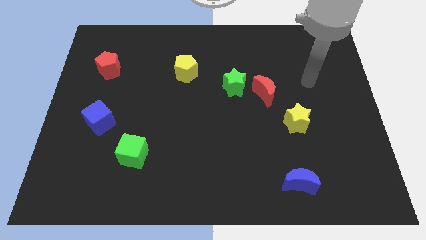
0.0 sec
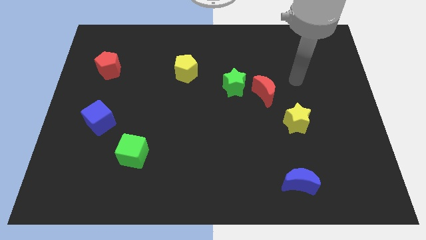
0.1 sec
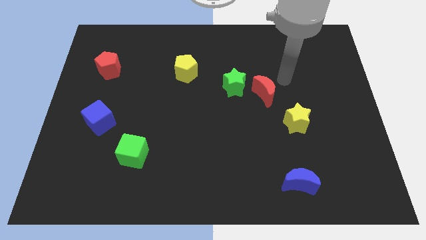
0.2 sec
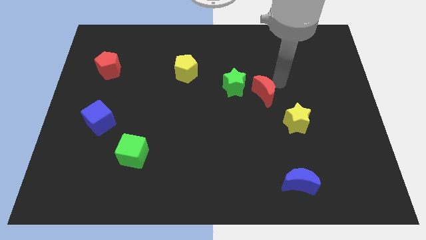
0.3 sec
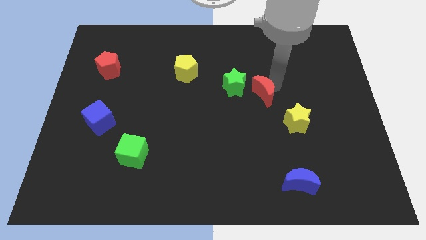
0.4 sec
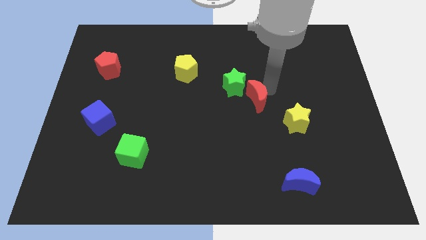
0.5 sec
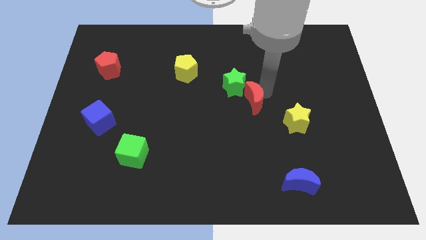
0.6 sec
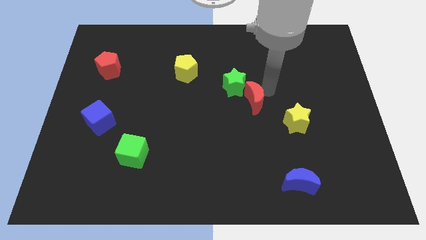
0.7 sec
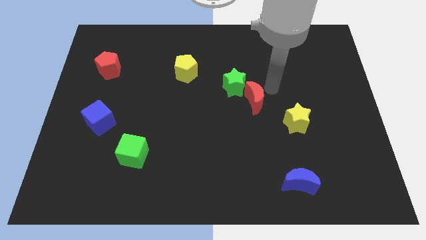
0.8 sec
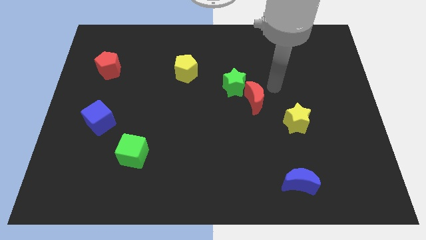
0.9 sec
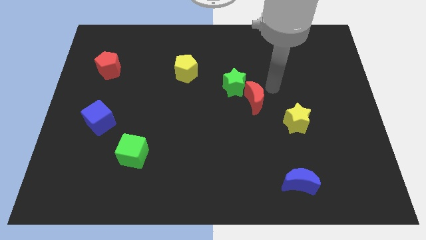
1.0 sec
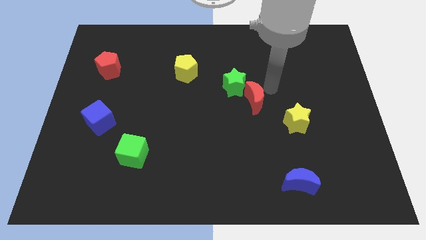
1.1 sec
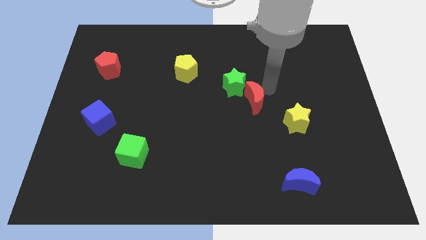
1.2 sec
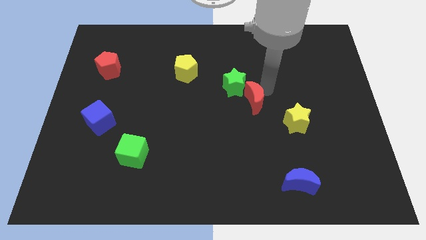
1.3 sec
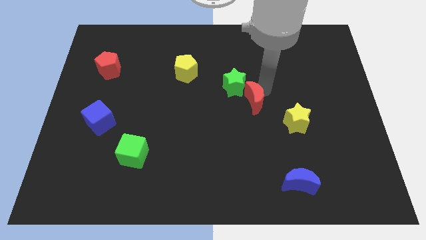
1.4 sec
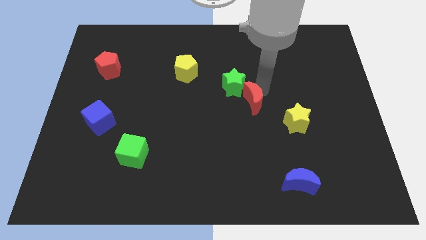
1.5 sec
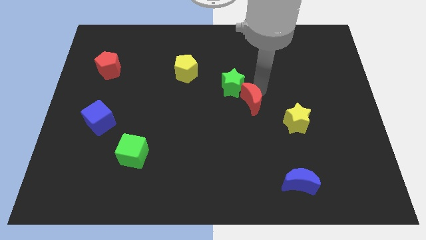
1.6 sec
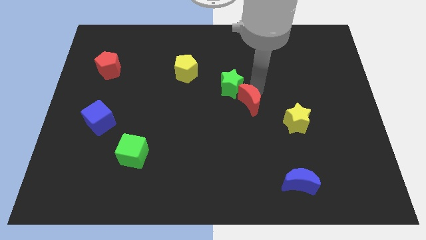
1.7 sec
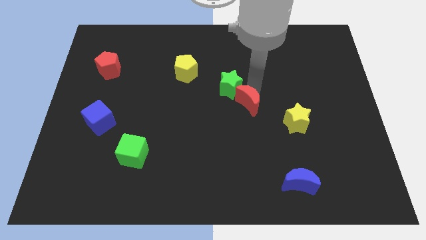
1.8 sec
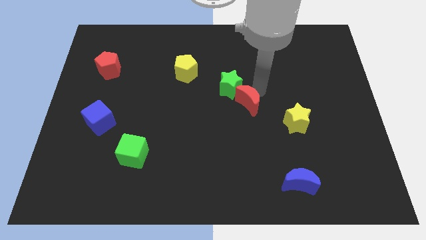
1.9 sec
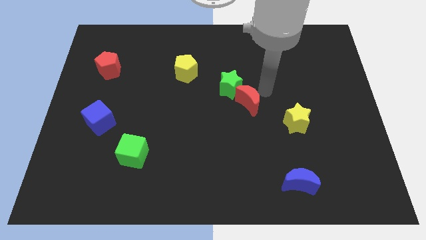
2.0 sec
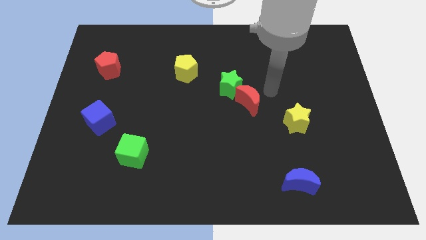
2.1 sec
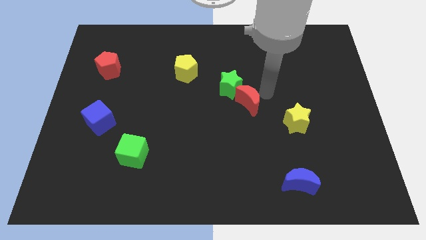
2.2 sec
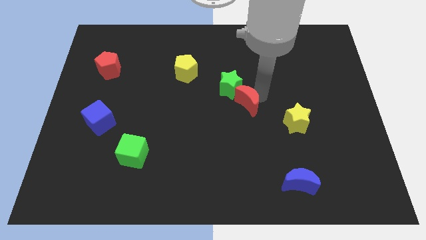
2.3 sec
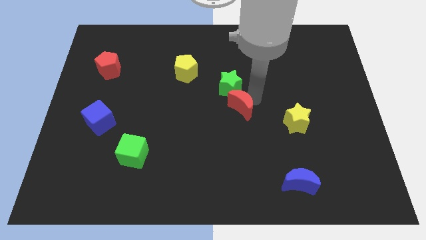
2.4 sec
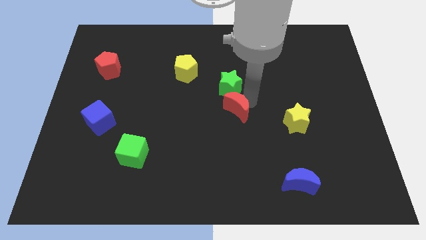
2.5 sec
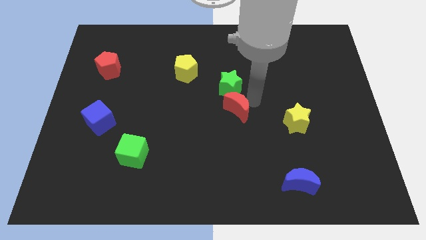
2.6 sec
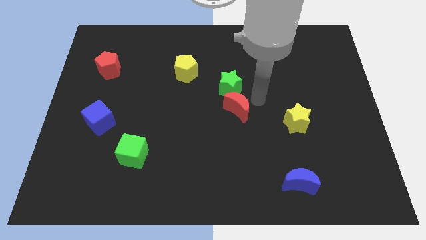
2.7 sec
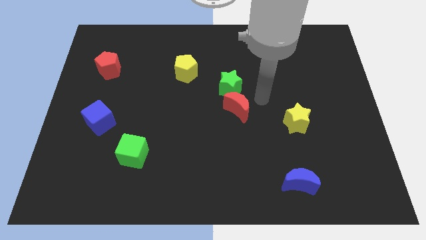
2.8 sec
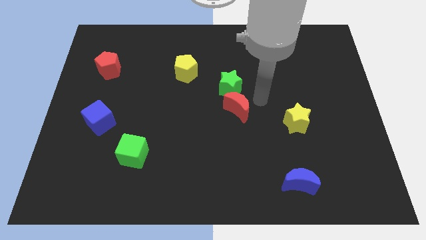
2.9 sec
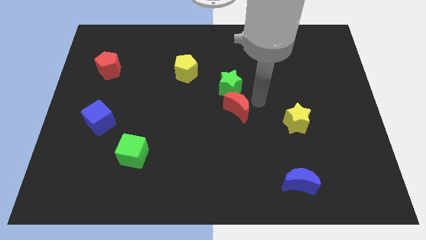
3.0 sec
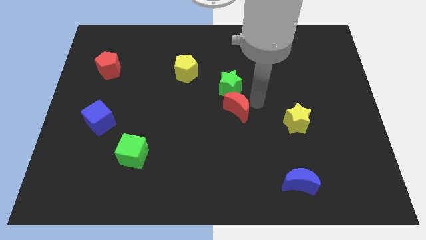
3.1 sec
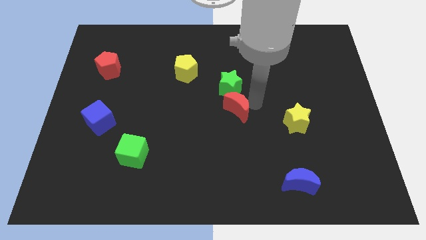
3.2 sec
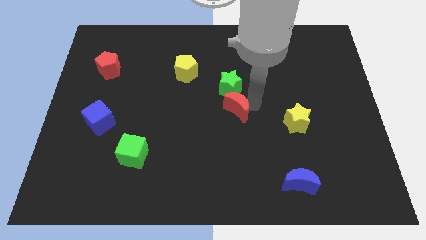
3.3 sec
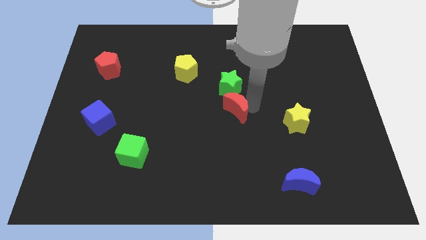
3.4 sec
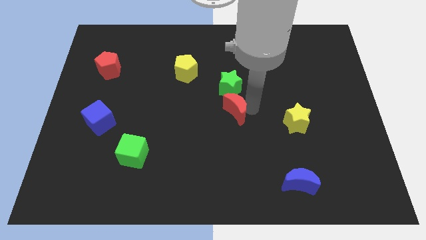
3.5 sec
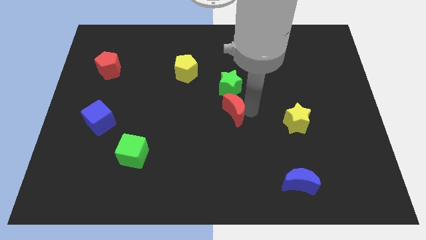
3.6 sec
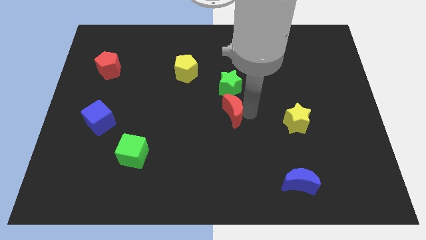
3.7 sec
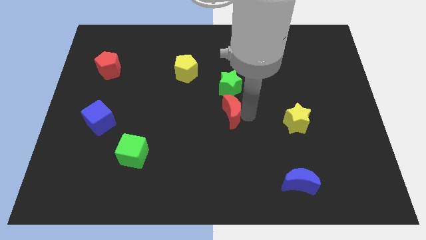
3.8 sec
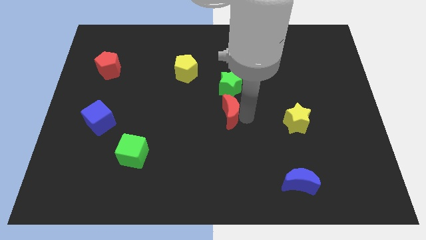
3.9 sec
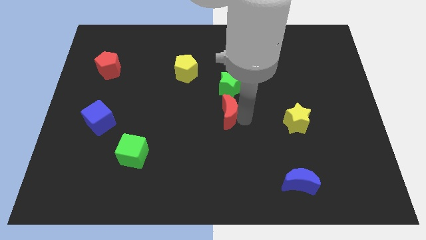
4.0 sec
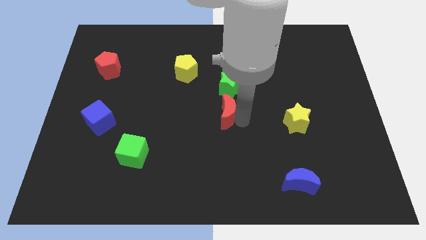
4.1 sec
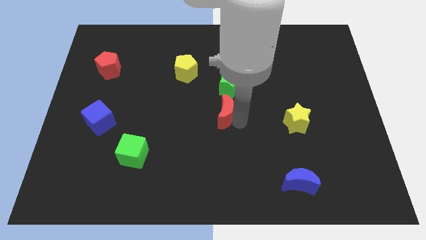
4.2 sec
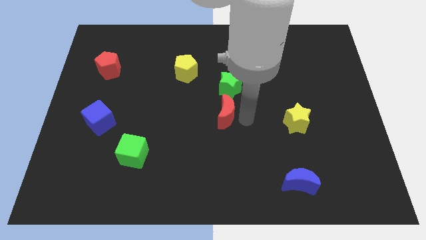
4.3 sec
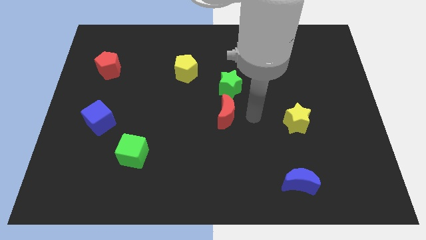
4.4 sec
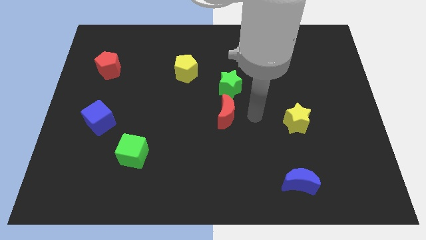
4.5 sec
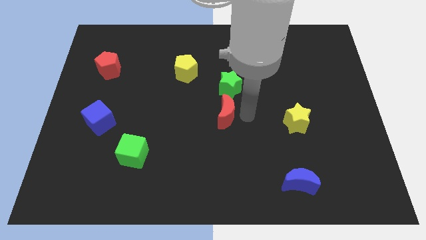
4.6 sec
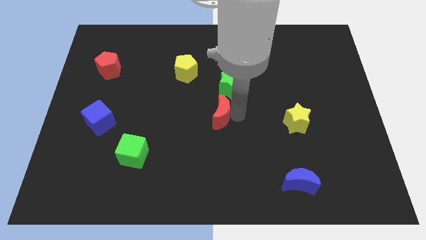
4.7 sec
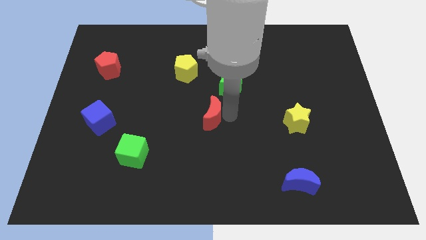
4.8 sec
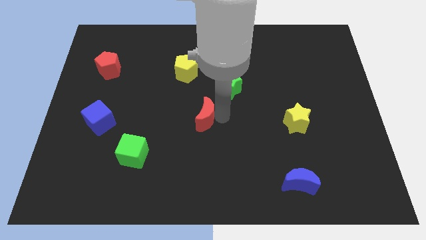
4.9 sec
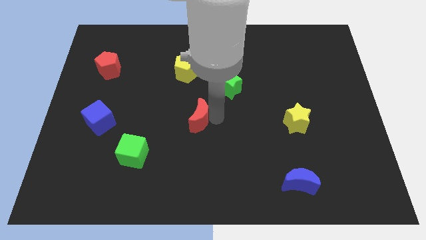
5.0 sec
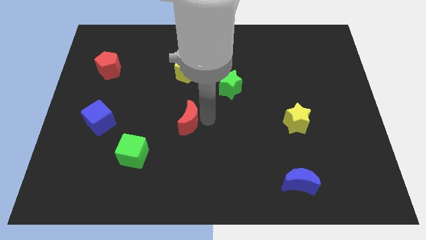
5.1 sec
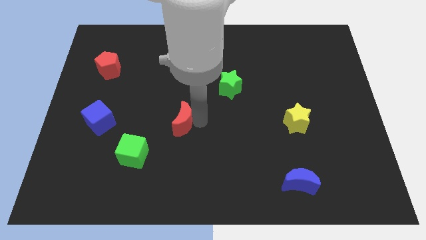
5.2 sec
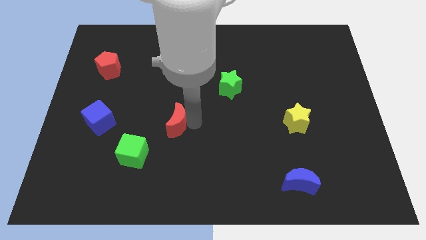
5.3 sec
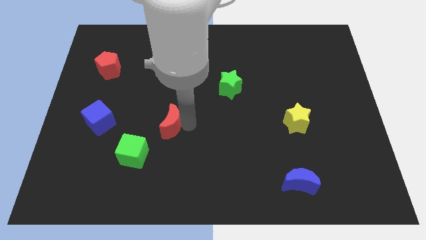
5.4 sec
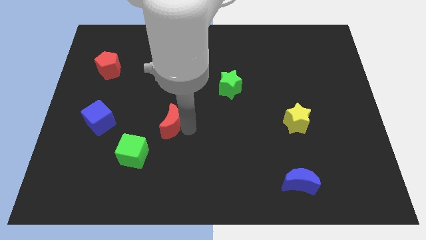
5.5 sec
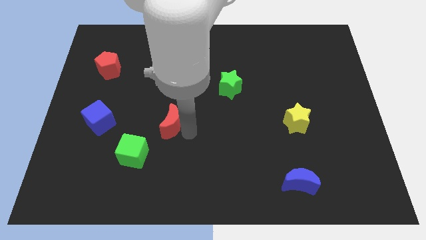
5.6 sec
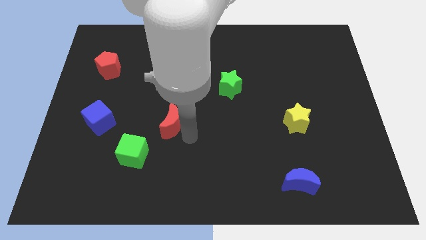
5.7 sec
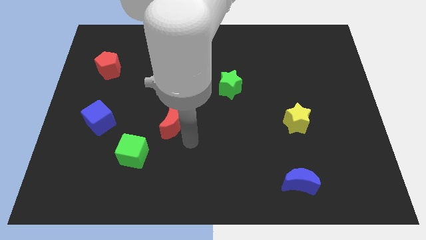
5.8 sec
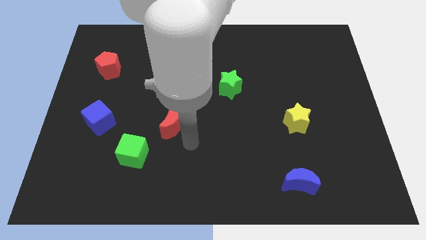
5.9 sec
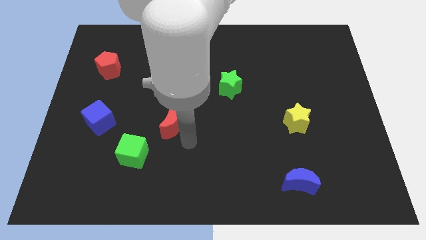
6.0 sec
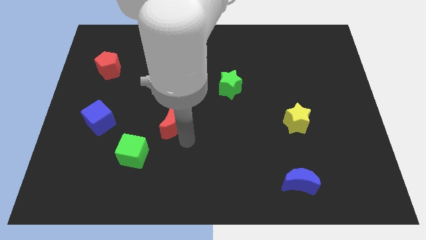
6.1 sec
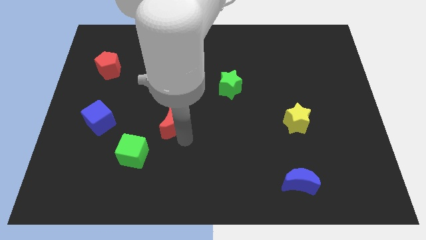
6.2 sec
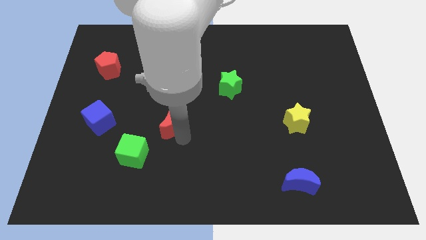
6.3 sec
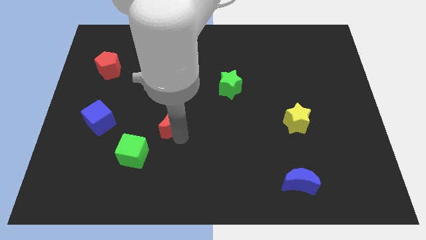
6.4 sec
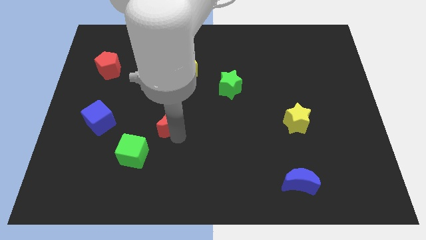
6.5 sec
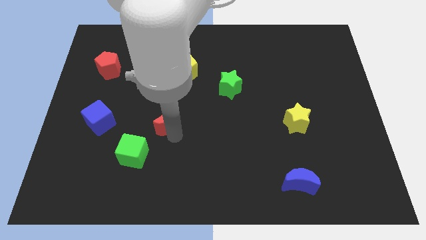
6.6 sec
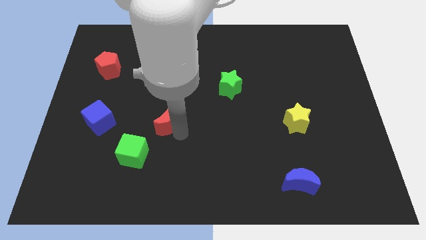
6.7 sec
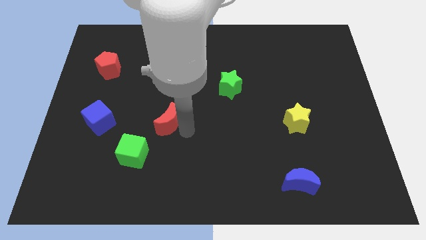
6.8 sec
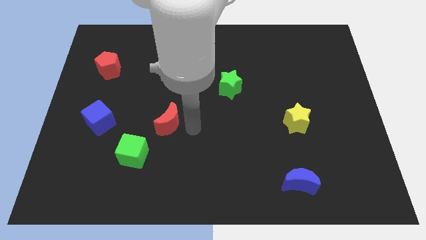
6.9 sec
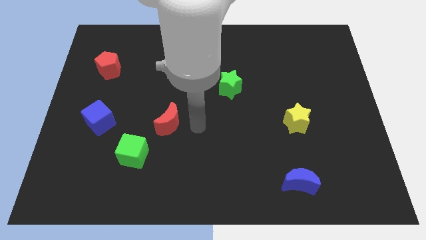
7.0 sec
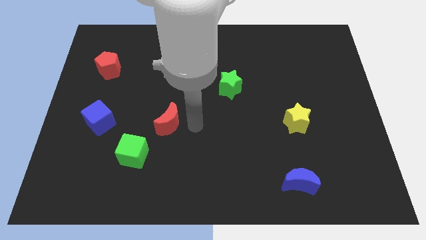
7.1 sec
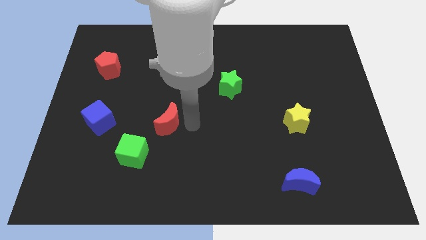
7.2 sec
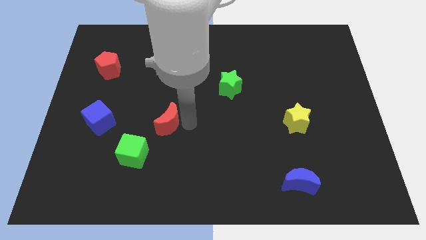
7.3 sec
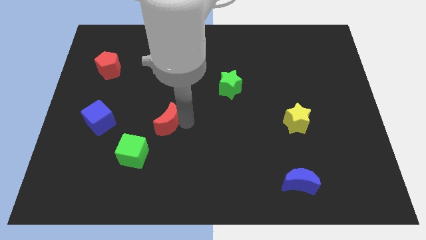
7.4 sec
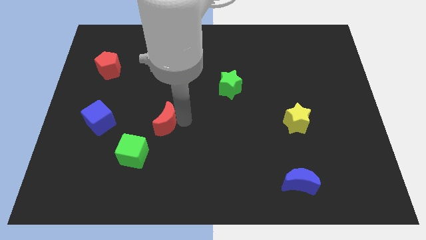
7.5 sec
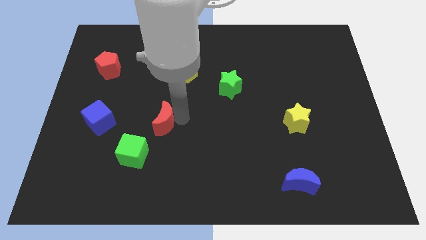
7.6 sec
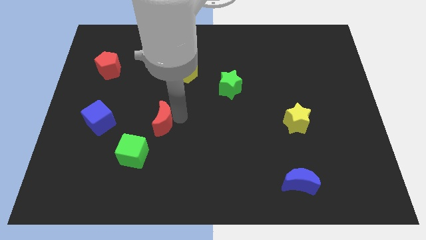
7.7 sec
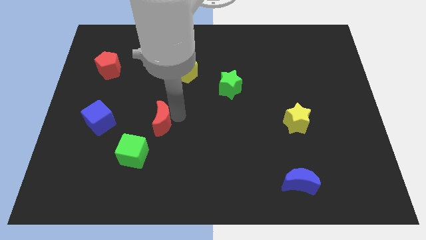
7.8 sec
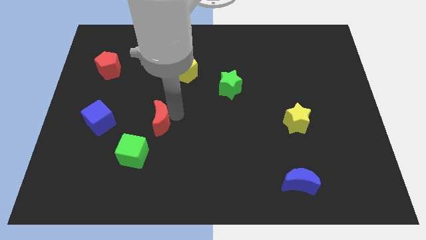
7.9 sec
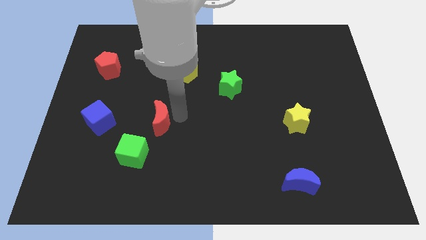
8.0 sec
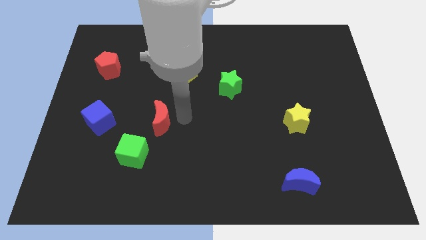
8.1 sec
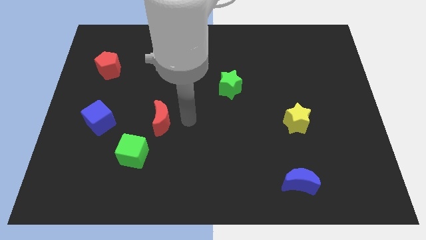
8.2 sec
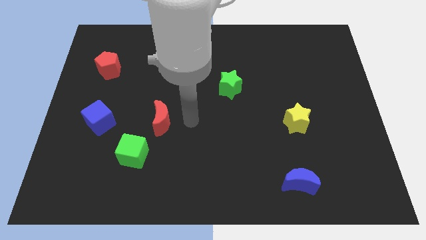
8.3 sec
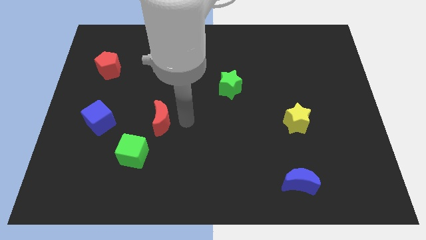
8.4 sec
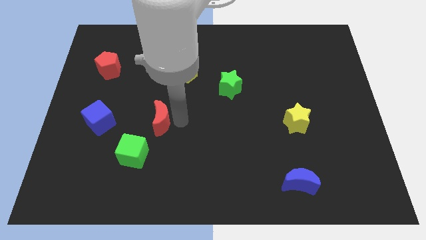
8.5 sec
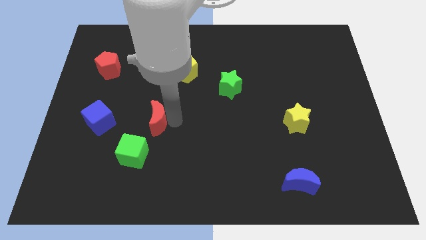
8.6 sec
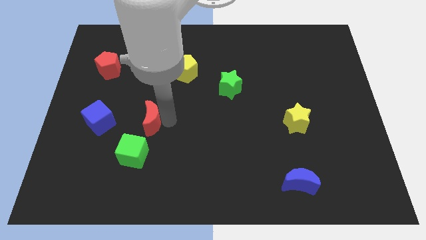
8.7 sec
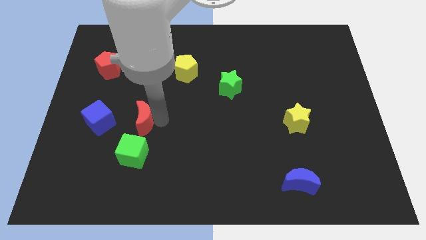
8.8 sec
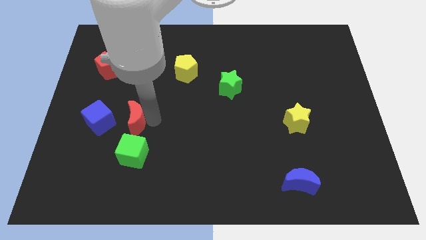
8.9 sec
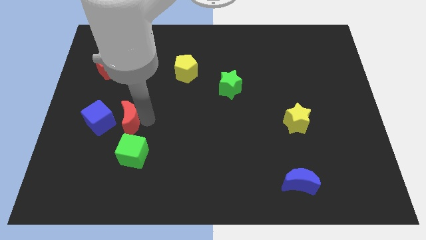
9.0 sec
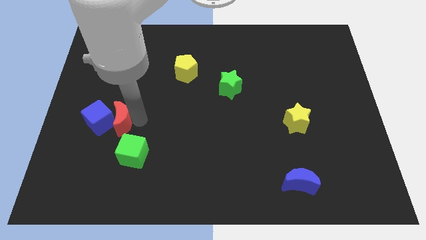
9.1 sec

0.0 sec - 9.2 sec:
put the red moon next to the blue cube
